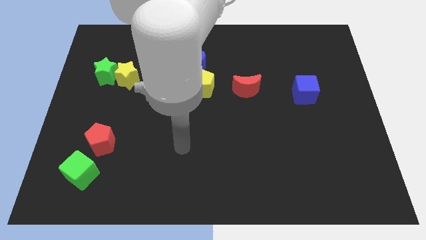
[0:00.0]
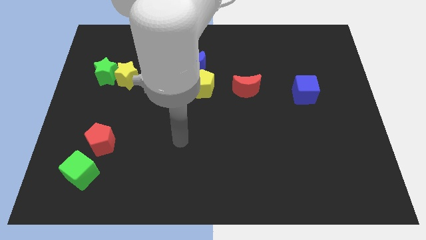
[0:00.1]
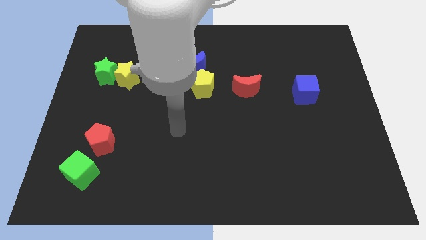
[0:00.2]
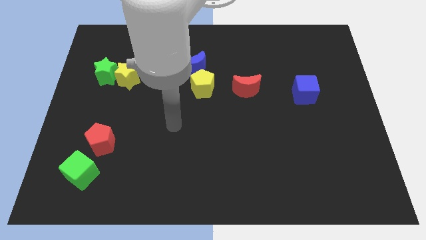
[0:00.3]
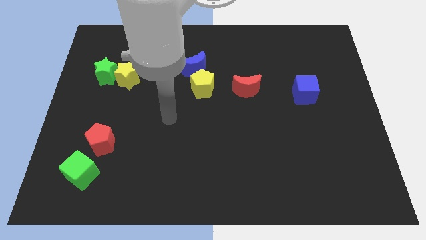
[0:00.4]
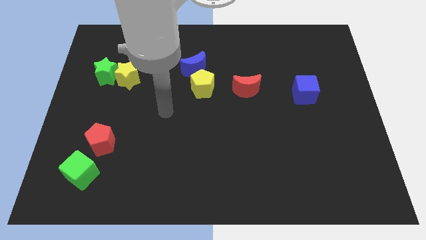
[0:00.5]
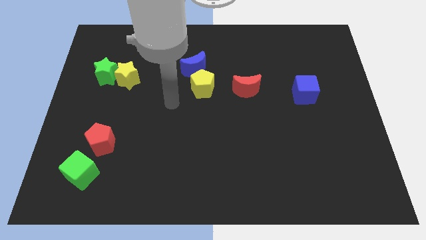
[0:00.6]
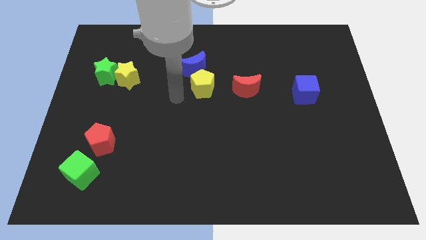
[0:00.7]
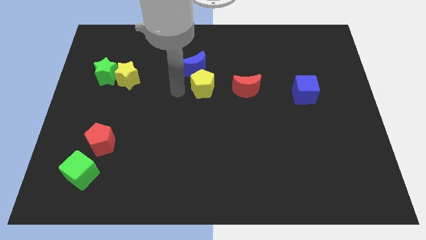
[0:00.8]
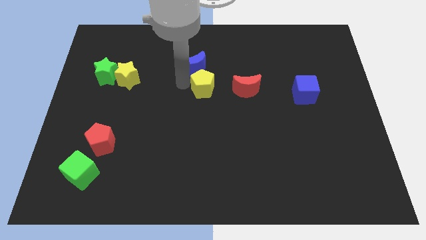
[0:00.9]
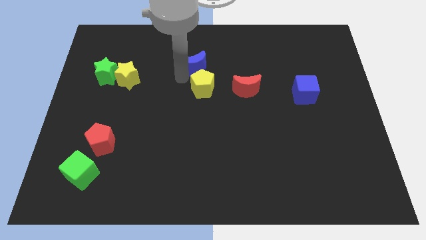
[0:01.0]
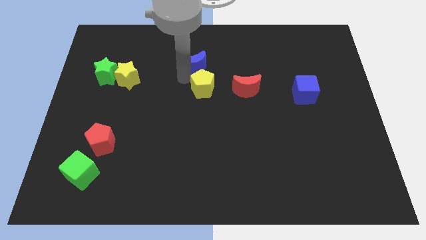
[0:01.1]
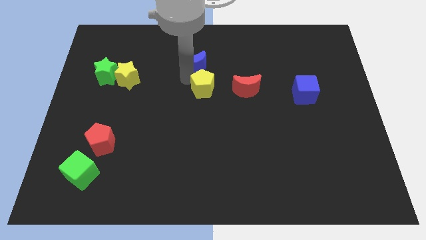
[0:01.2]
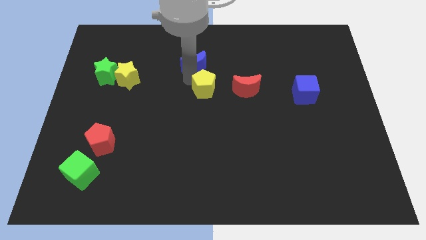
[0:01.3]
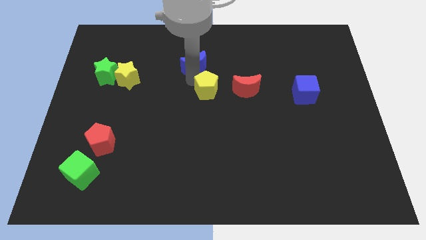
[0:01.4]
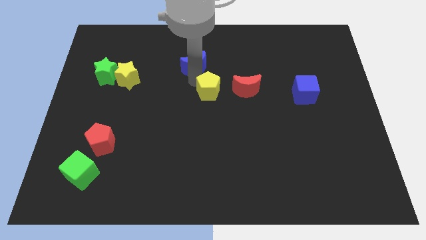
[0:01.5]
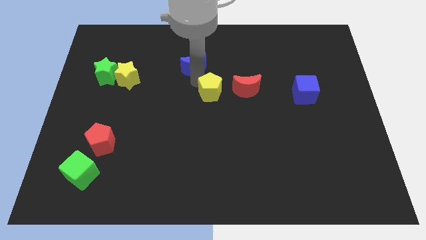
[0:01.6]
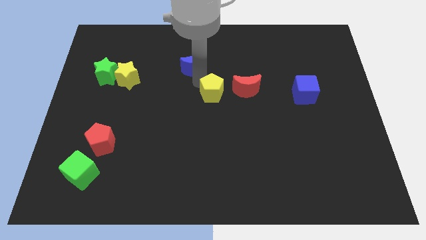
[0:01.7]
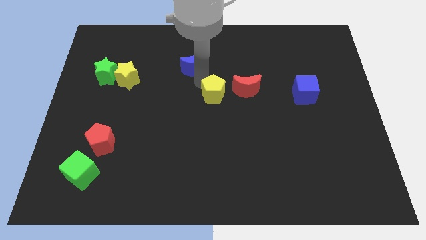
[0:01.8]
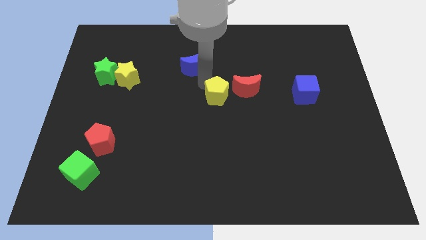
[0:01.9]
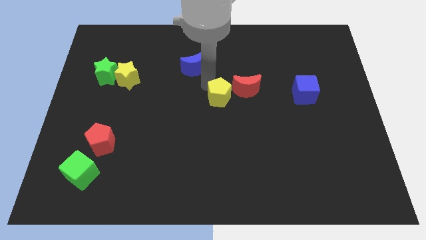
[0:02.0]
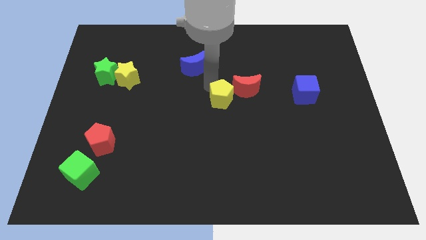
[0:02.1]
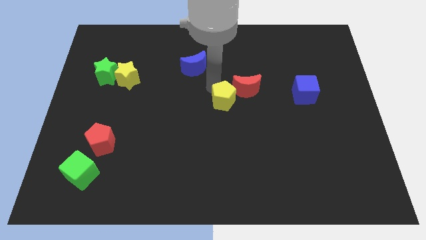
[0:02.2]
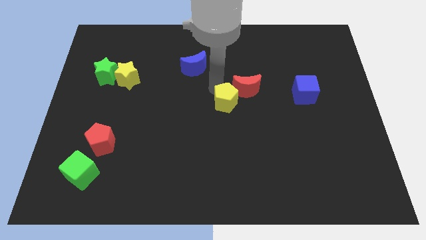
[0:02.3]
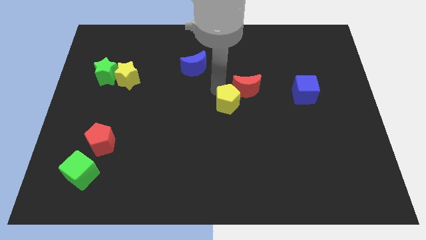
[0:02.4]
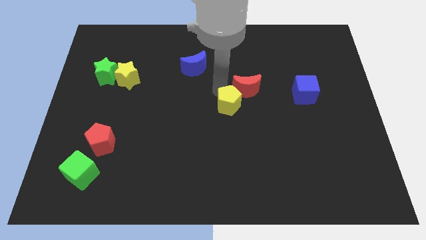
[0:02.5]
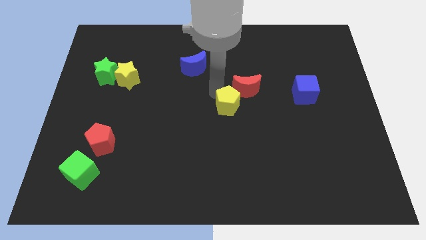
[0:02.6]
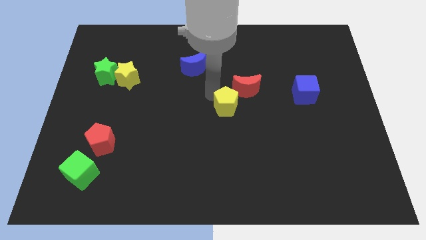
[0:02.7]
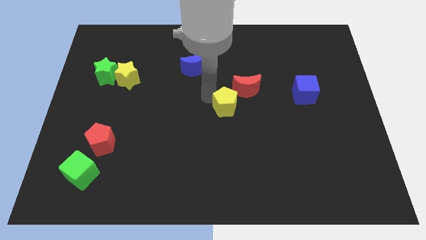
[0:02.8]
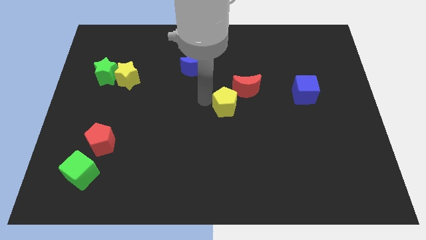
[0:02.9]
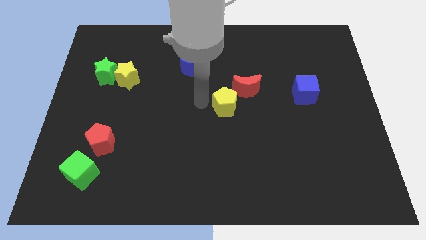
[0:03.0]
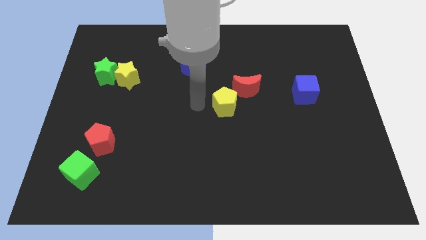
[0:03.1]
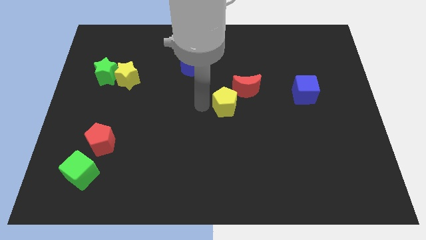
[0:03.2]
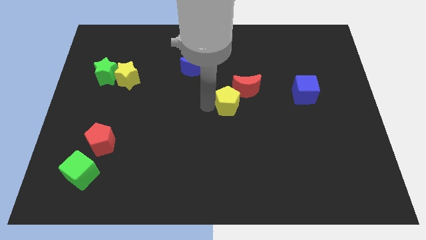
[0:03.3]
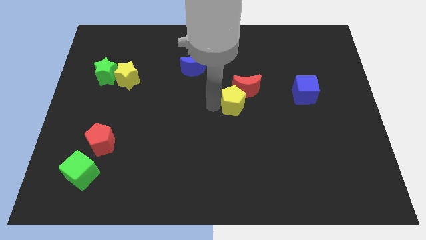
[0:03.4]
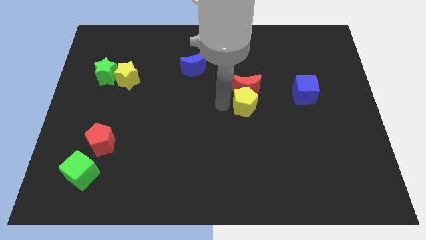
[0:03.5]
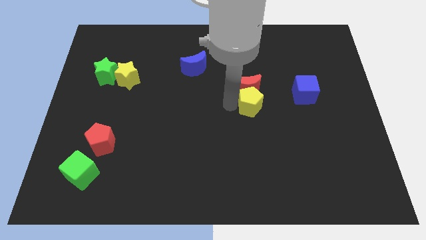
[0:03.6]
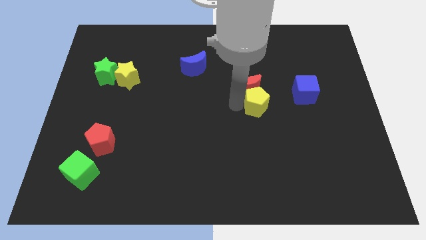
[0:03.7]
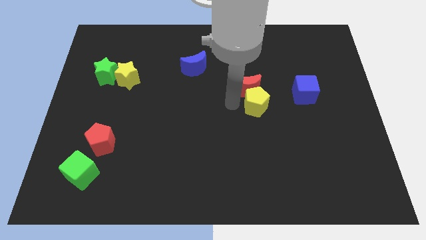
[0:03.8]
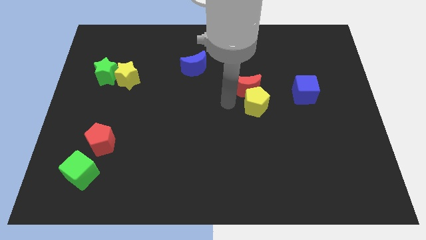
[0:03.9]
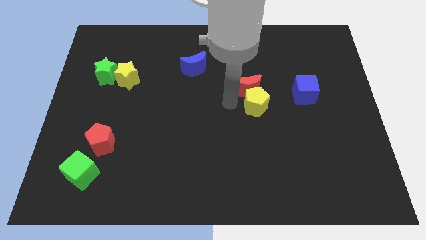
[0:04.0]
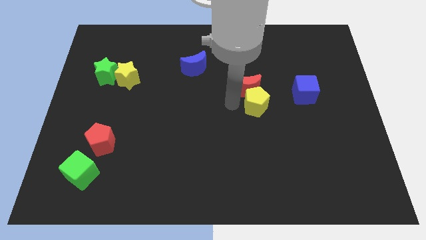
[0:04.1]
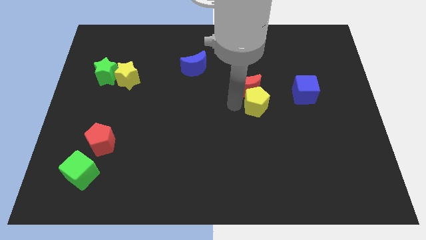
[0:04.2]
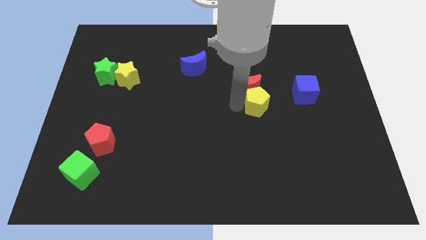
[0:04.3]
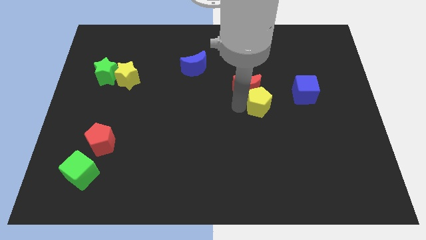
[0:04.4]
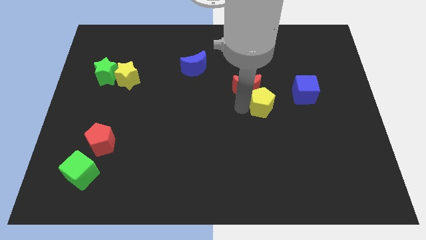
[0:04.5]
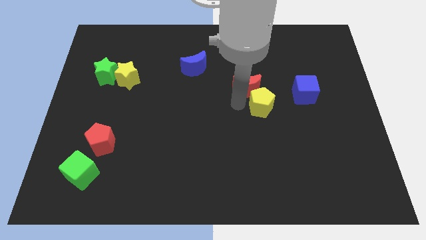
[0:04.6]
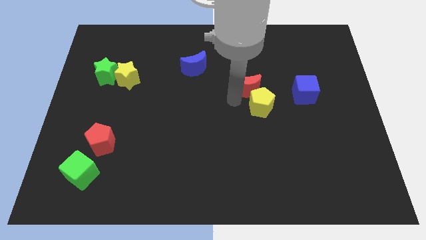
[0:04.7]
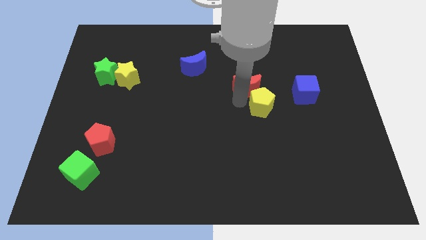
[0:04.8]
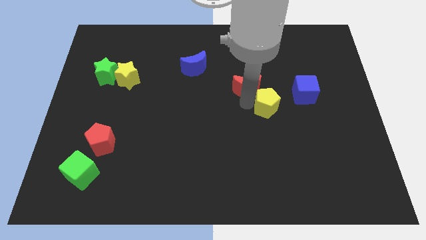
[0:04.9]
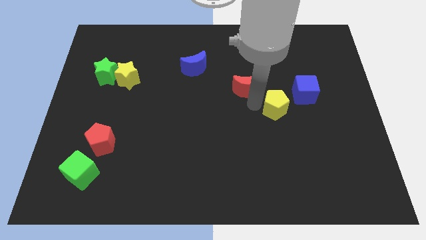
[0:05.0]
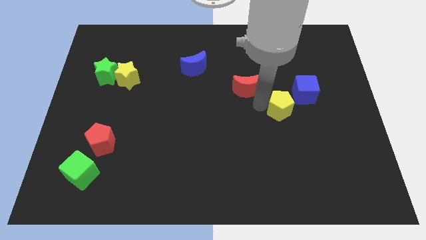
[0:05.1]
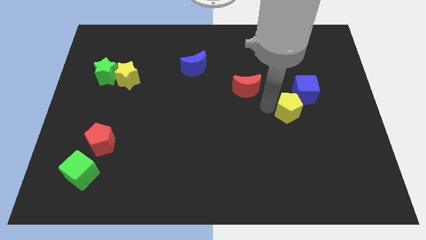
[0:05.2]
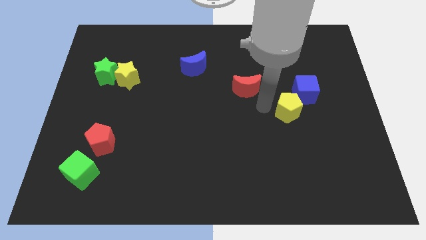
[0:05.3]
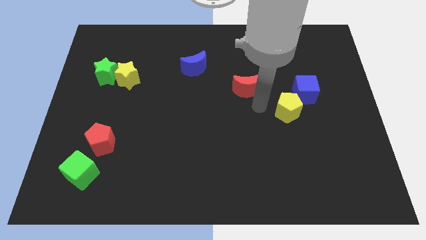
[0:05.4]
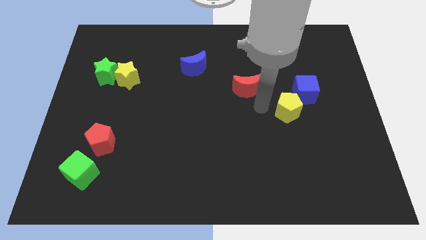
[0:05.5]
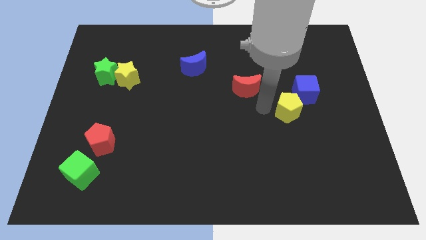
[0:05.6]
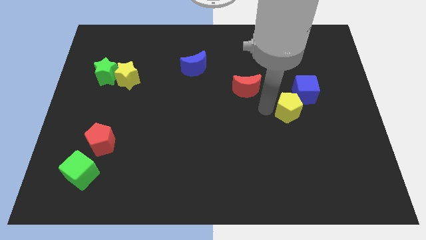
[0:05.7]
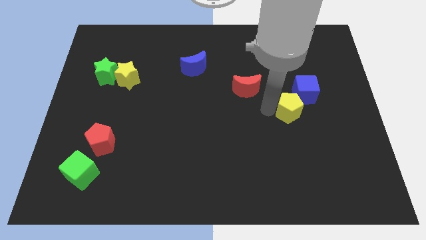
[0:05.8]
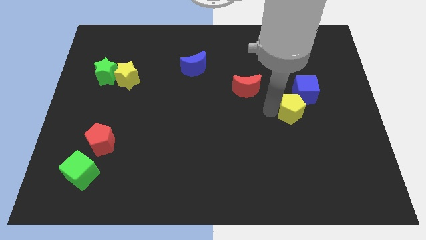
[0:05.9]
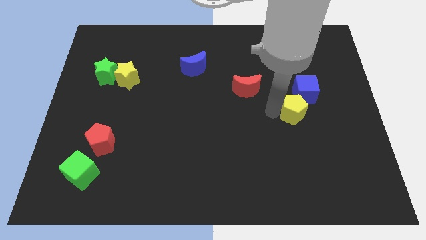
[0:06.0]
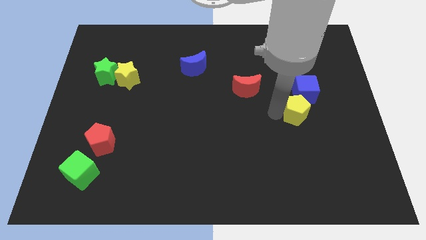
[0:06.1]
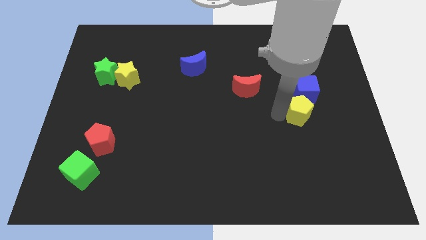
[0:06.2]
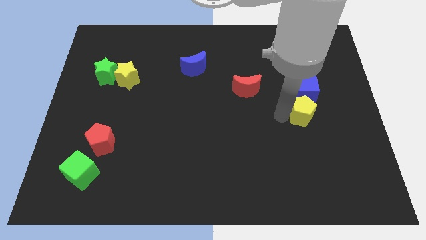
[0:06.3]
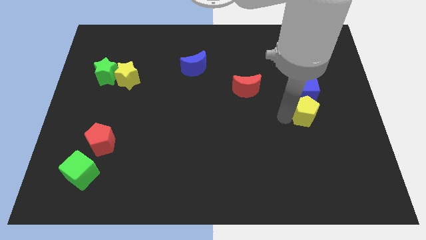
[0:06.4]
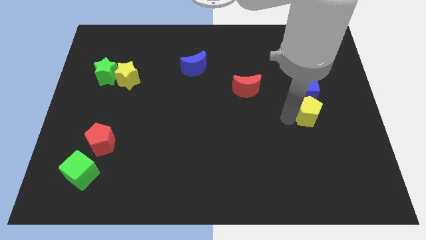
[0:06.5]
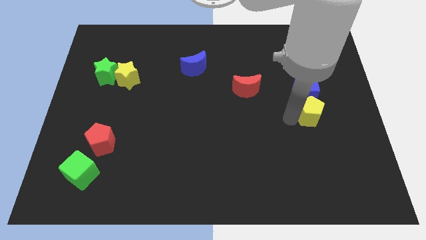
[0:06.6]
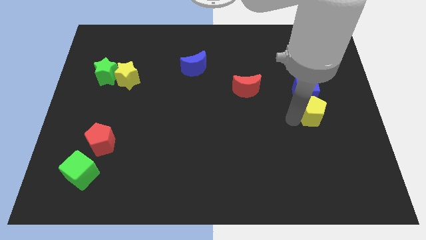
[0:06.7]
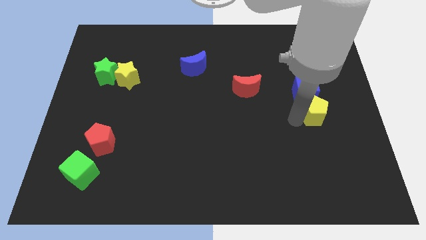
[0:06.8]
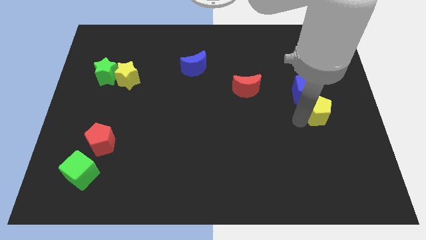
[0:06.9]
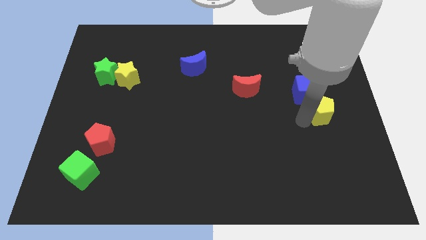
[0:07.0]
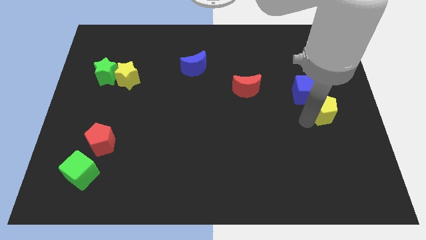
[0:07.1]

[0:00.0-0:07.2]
move the yellow pentagon to the right side of the board
